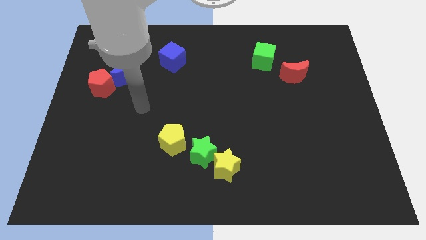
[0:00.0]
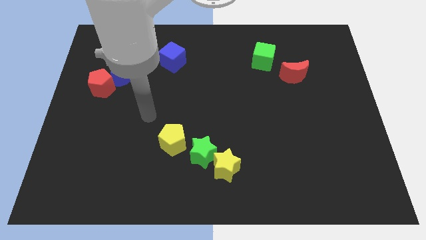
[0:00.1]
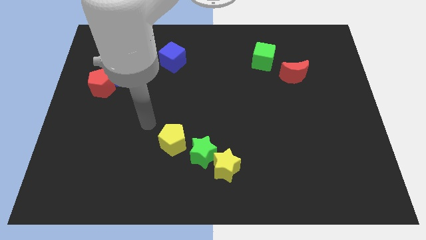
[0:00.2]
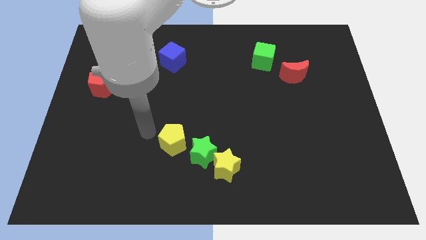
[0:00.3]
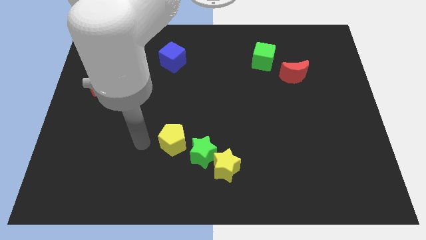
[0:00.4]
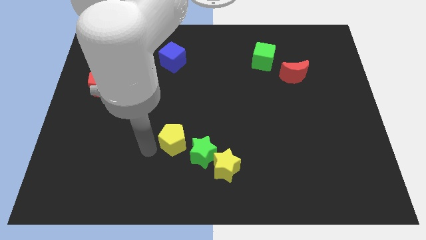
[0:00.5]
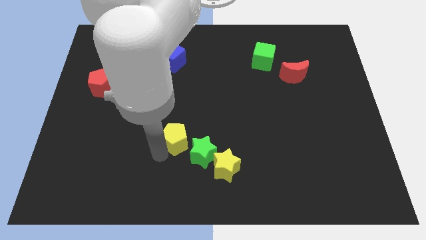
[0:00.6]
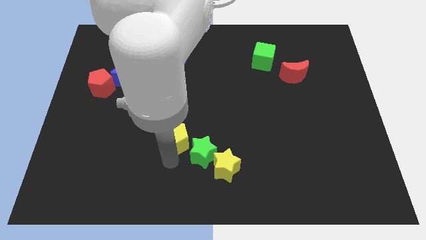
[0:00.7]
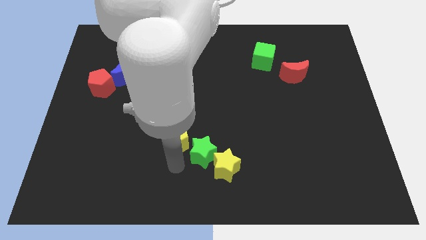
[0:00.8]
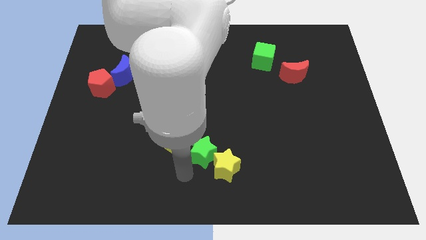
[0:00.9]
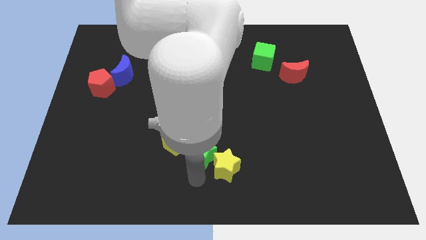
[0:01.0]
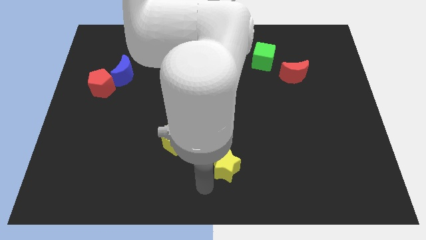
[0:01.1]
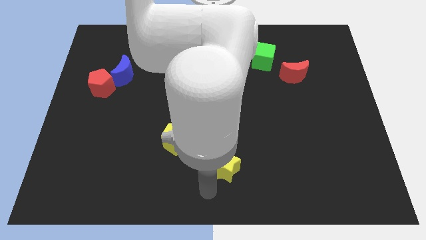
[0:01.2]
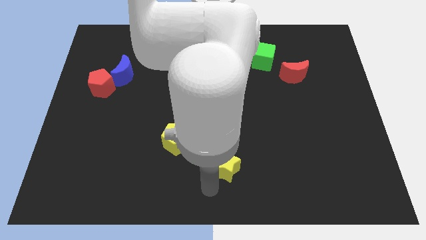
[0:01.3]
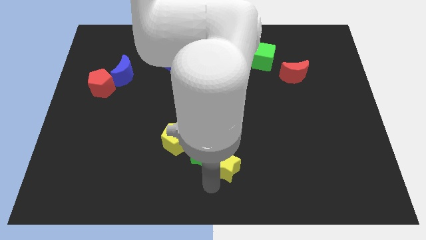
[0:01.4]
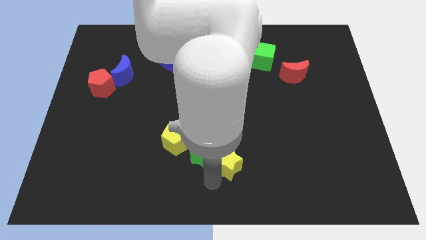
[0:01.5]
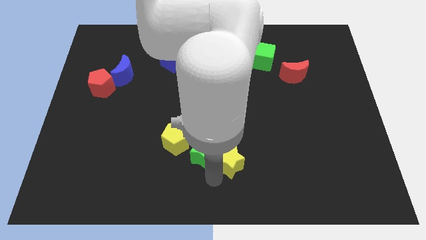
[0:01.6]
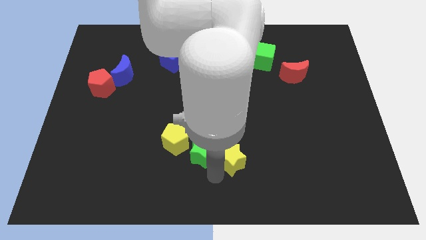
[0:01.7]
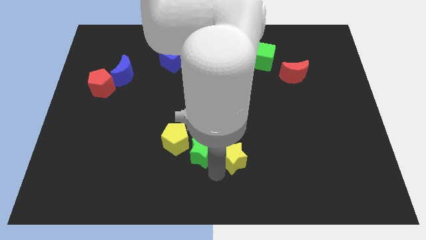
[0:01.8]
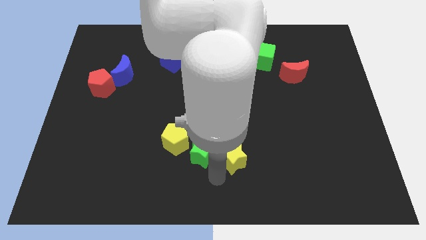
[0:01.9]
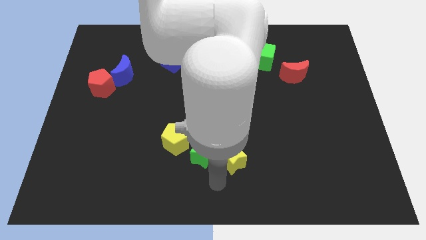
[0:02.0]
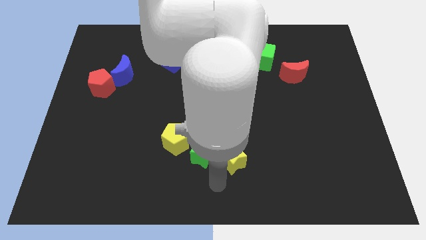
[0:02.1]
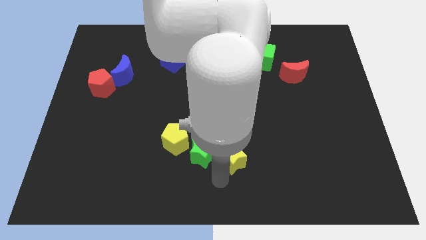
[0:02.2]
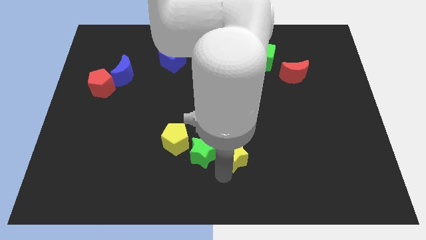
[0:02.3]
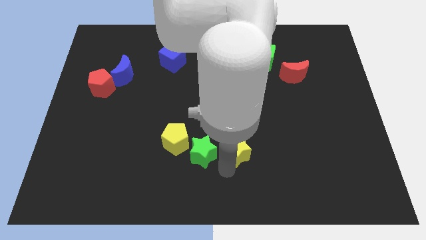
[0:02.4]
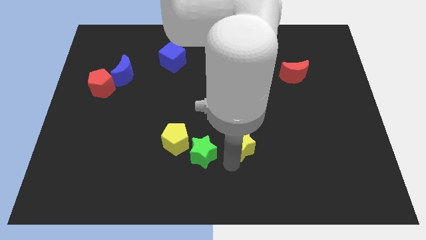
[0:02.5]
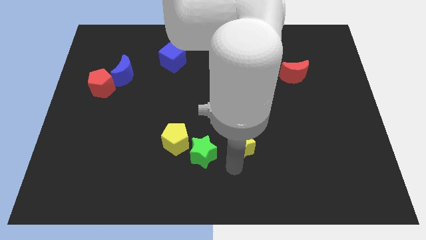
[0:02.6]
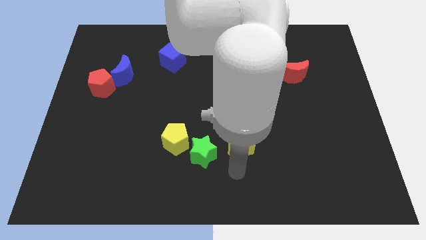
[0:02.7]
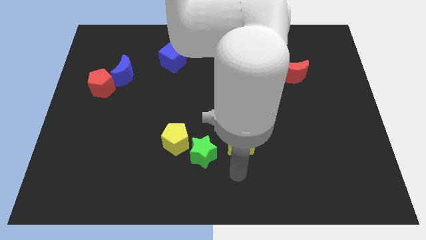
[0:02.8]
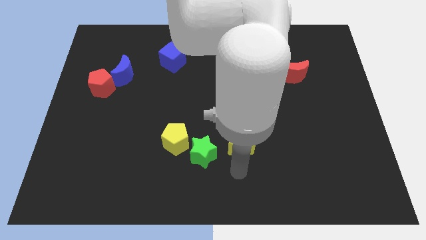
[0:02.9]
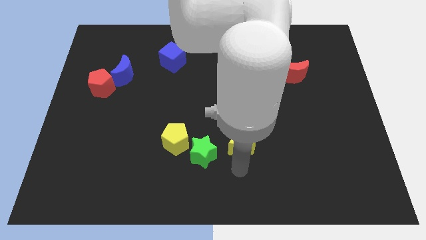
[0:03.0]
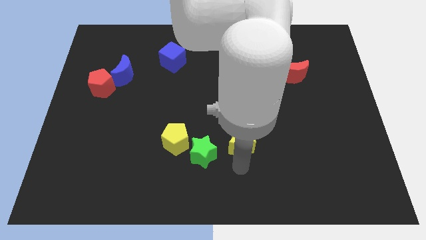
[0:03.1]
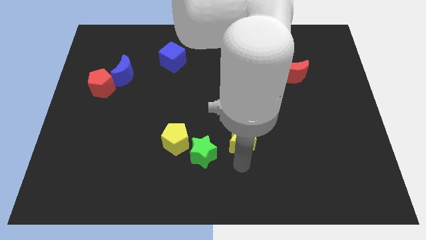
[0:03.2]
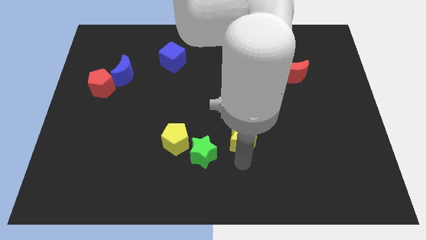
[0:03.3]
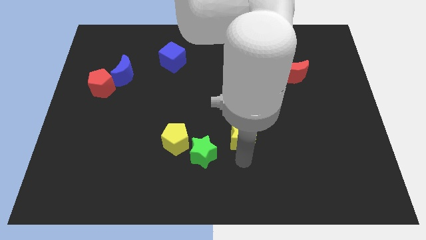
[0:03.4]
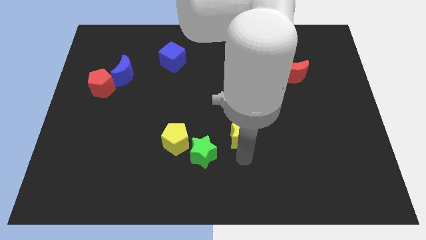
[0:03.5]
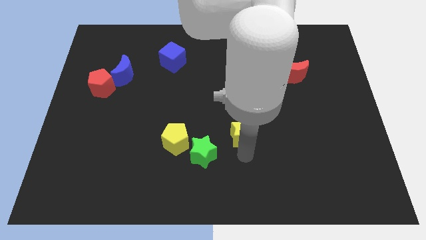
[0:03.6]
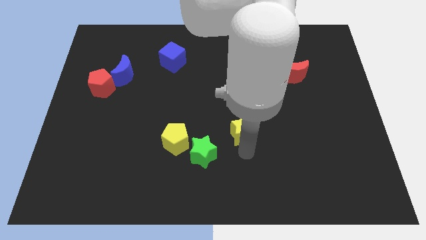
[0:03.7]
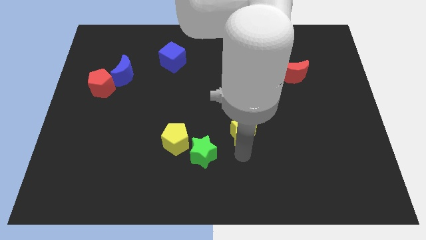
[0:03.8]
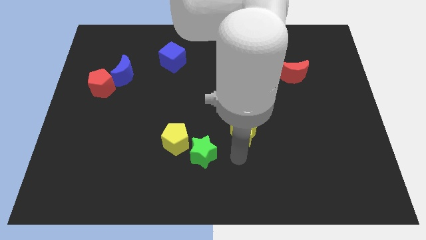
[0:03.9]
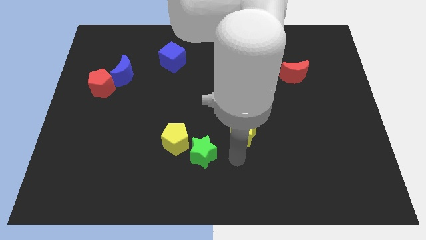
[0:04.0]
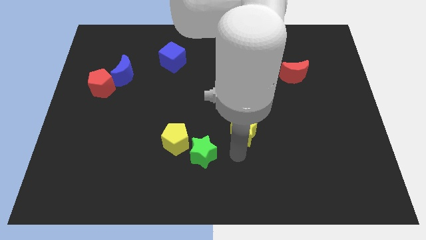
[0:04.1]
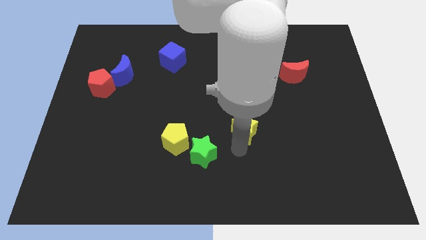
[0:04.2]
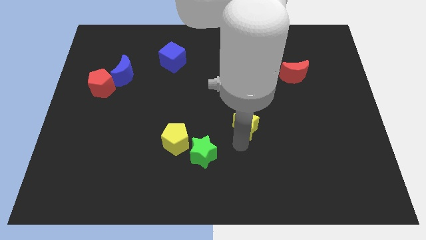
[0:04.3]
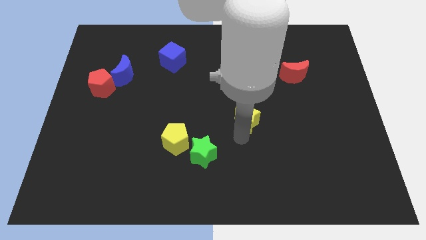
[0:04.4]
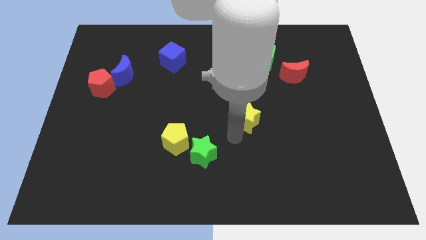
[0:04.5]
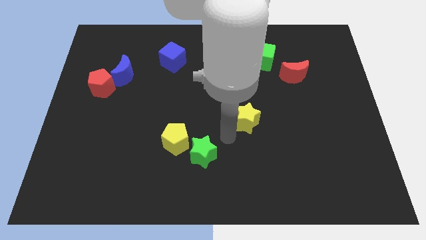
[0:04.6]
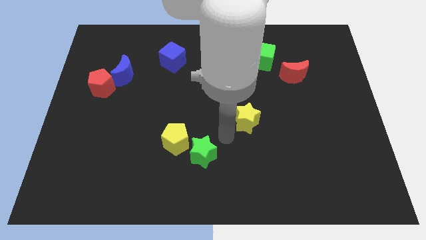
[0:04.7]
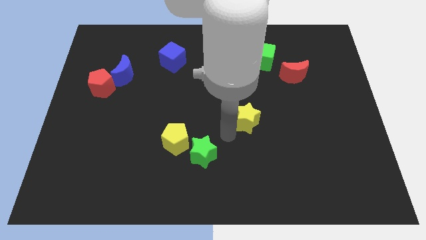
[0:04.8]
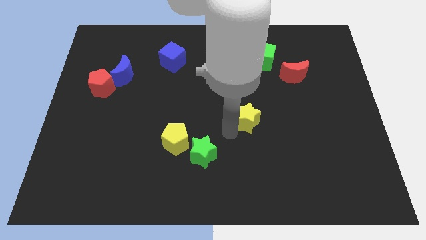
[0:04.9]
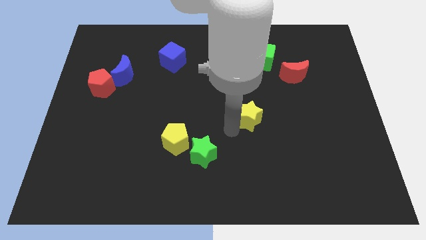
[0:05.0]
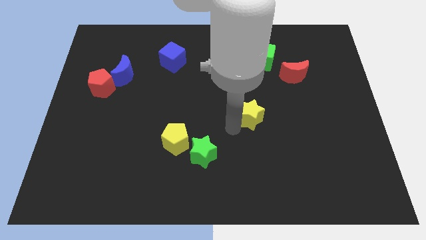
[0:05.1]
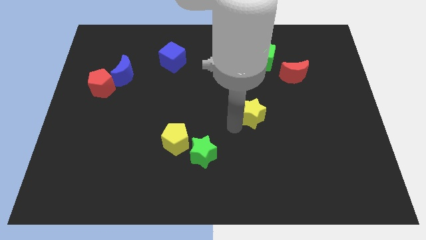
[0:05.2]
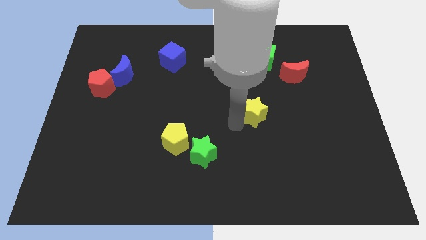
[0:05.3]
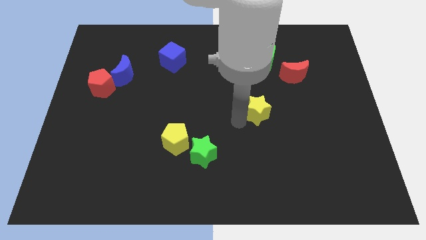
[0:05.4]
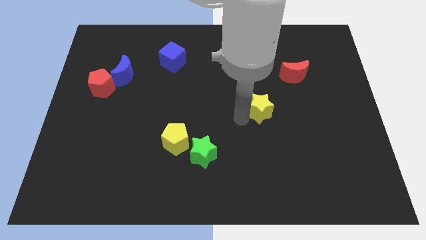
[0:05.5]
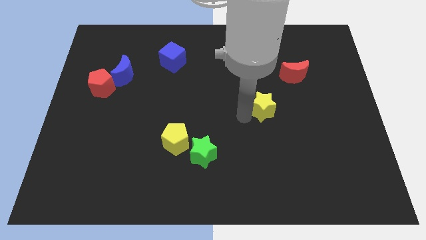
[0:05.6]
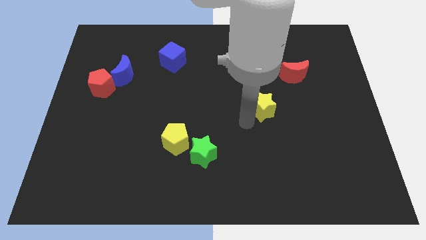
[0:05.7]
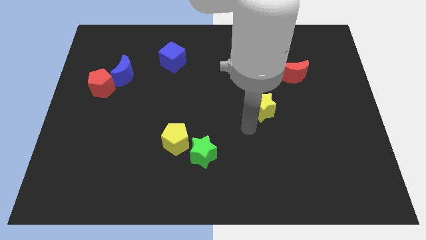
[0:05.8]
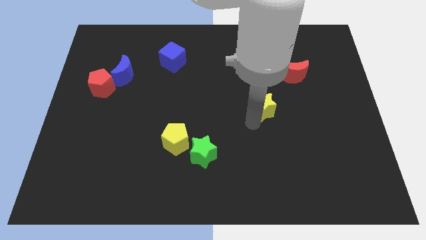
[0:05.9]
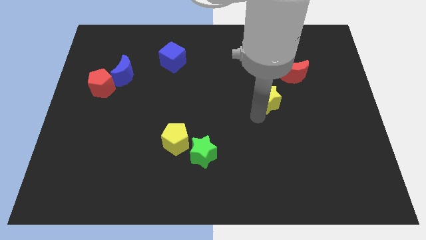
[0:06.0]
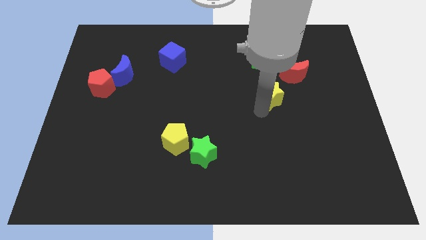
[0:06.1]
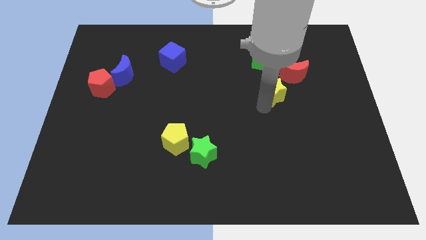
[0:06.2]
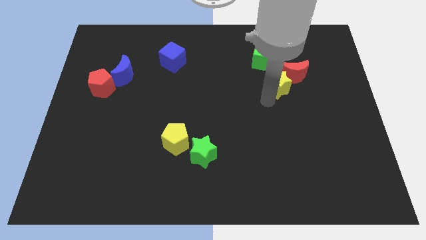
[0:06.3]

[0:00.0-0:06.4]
move the yellow star to the red moon
